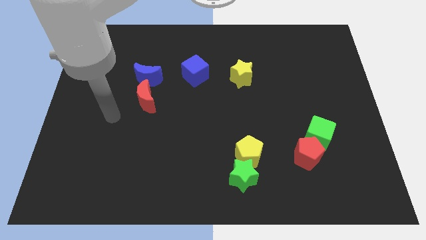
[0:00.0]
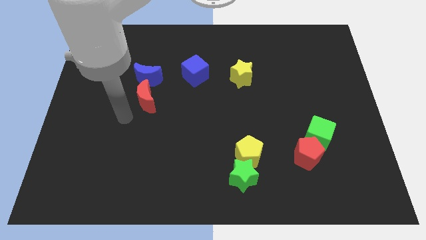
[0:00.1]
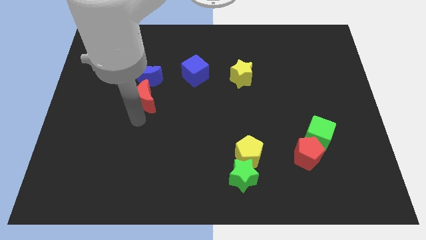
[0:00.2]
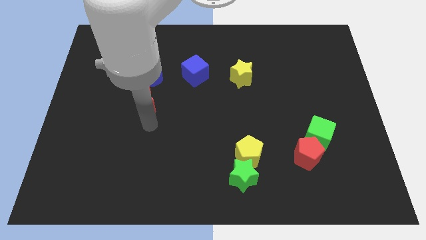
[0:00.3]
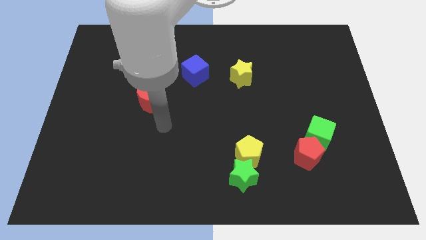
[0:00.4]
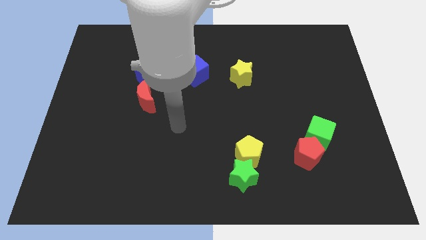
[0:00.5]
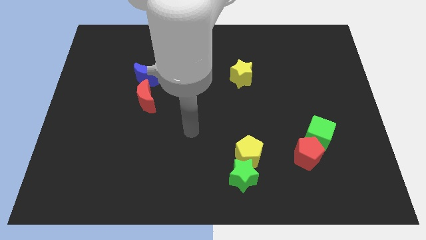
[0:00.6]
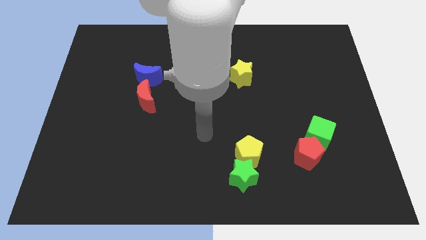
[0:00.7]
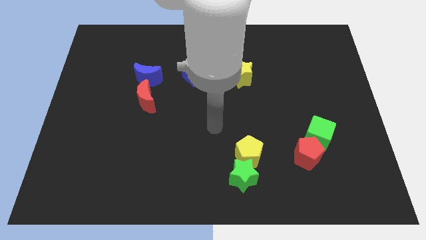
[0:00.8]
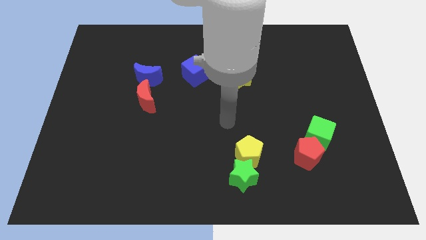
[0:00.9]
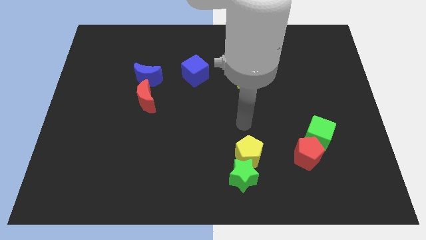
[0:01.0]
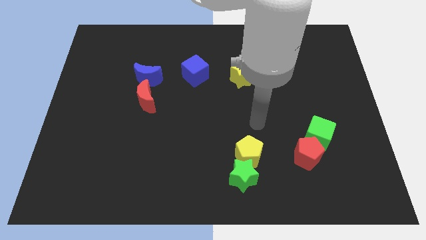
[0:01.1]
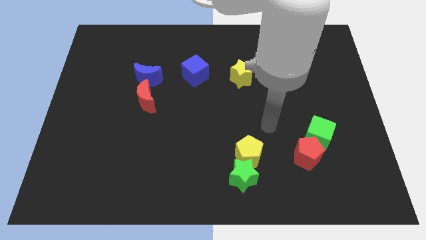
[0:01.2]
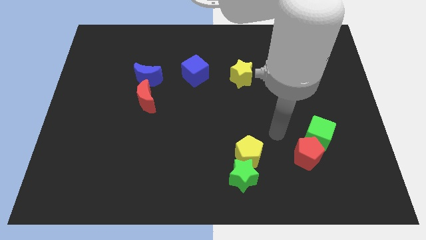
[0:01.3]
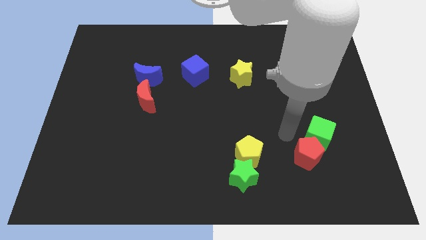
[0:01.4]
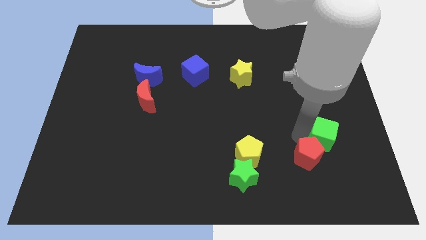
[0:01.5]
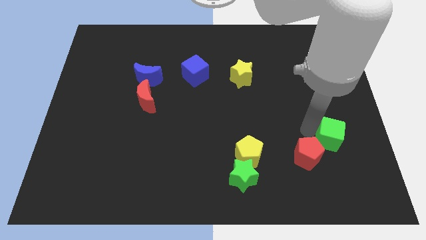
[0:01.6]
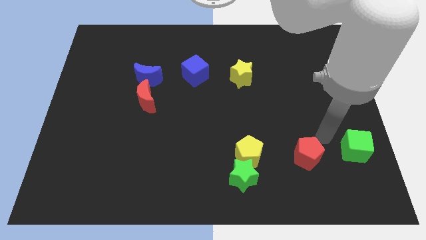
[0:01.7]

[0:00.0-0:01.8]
separate the red pentagon from the green cube

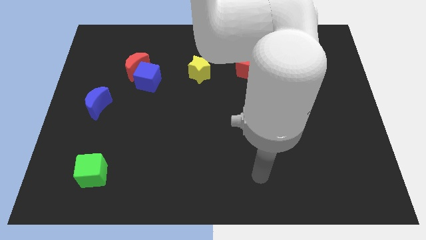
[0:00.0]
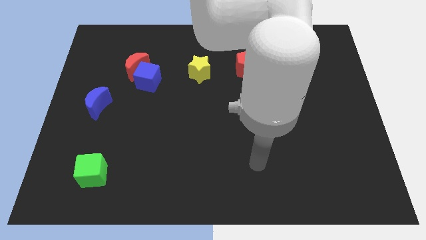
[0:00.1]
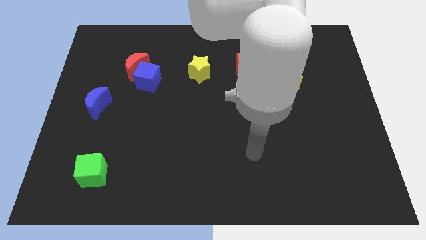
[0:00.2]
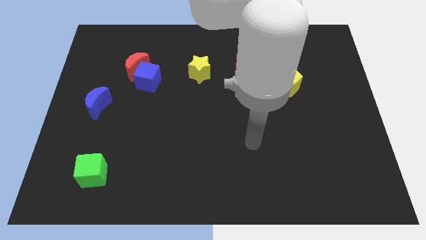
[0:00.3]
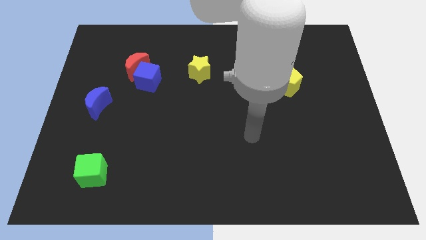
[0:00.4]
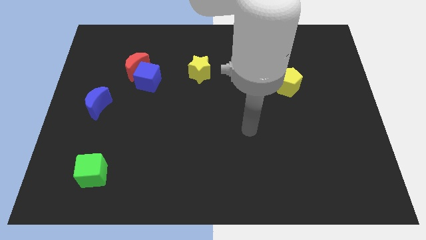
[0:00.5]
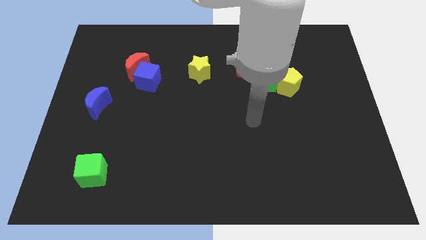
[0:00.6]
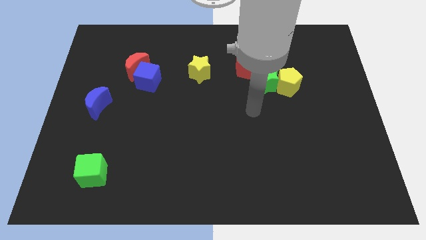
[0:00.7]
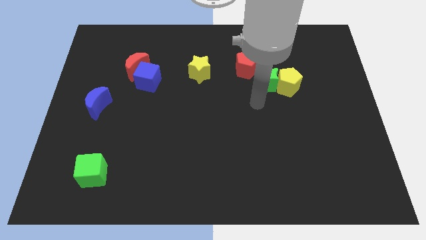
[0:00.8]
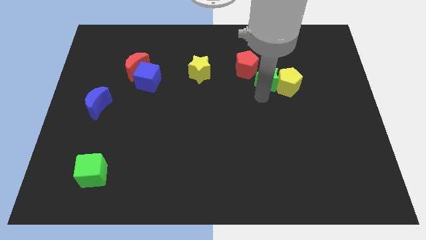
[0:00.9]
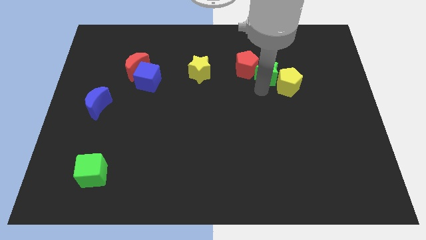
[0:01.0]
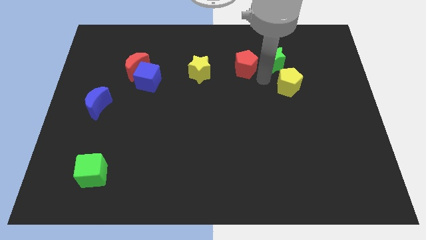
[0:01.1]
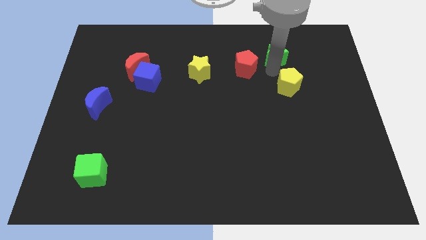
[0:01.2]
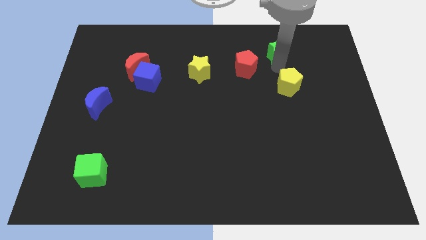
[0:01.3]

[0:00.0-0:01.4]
pull the yellow pentagon apart from the green star

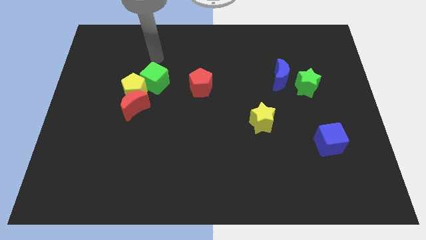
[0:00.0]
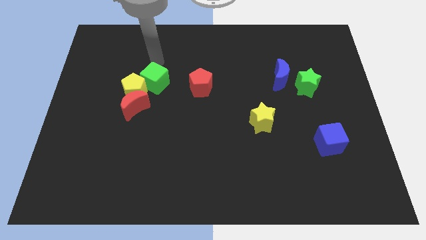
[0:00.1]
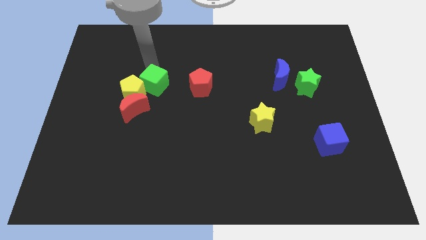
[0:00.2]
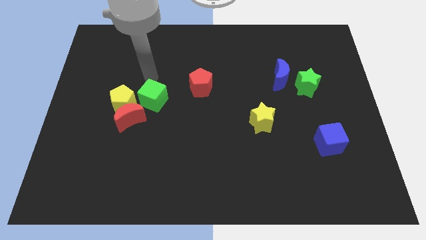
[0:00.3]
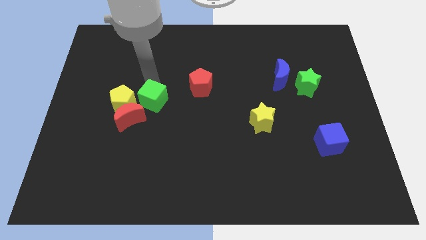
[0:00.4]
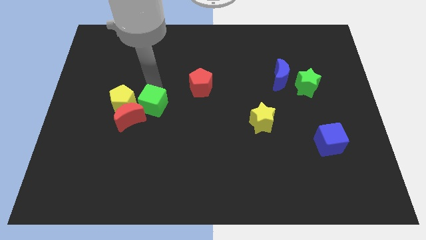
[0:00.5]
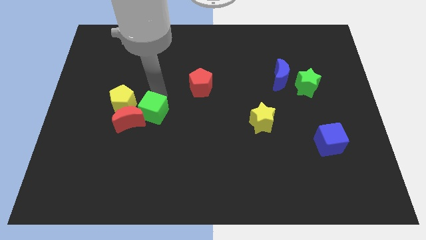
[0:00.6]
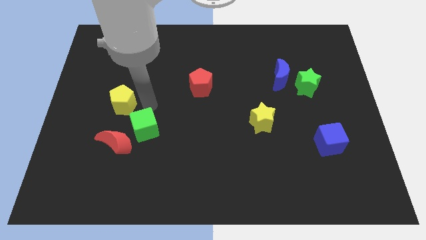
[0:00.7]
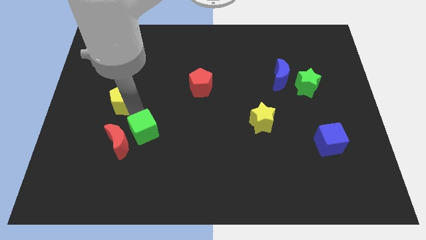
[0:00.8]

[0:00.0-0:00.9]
separate the yellow pentagon from the red moon and green cube

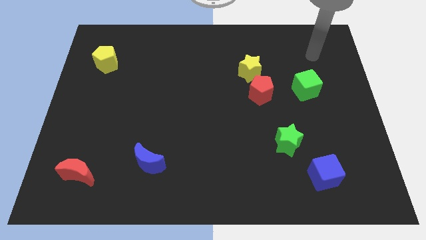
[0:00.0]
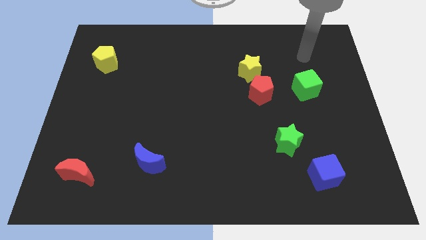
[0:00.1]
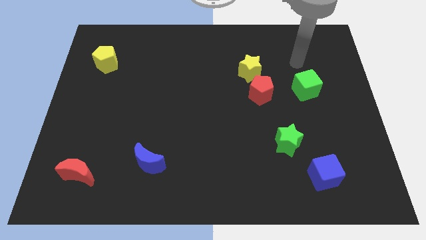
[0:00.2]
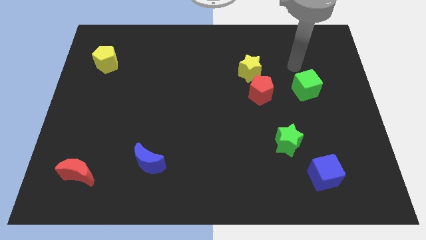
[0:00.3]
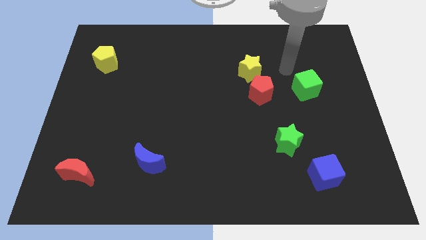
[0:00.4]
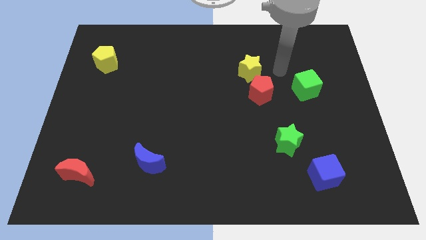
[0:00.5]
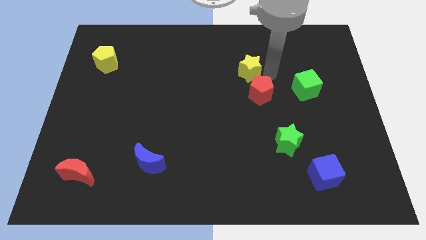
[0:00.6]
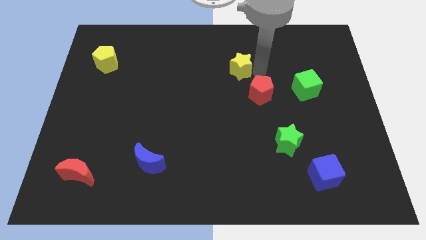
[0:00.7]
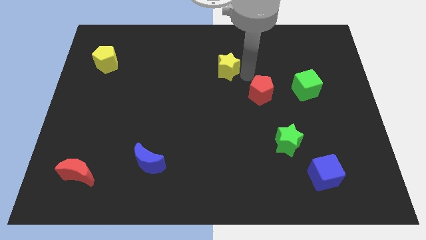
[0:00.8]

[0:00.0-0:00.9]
separate the red pentagon from the yellow star

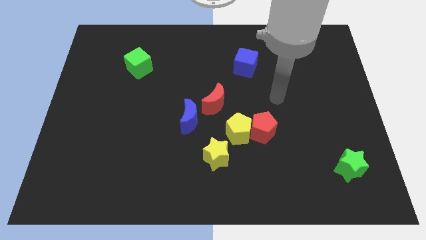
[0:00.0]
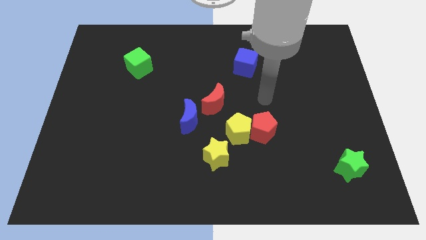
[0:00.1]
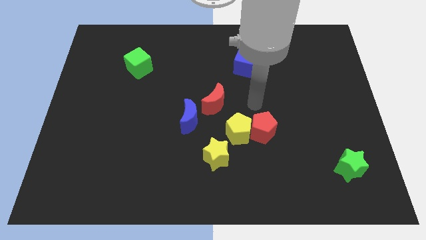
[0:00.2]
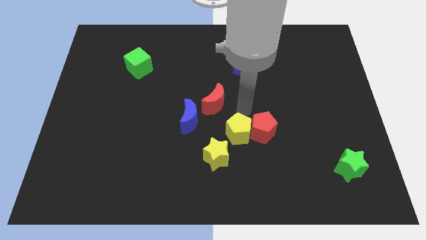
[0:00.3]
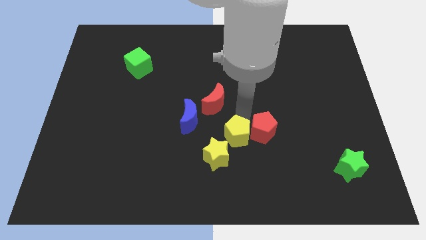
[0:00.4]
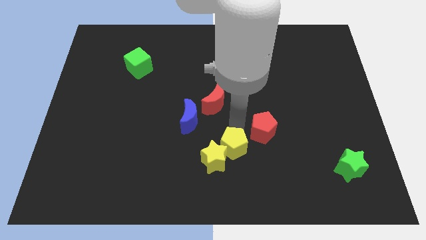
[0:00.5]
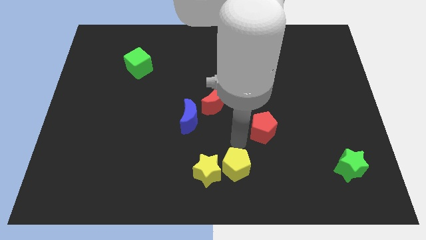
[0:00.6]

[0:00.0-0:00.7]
move the red pentagon away from the yellow pentagon

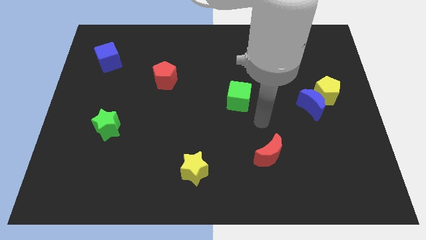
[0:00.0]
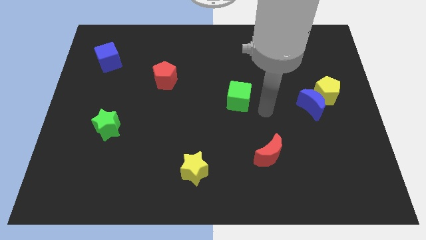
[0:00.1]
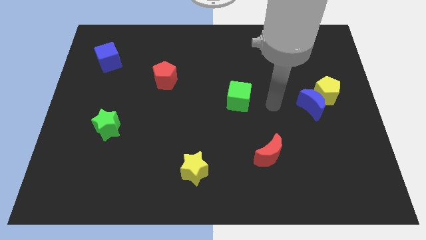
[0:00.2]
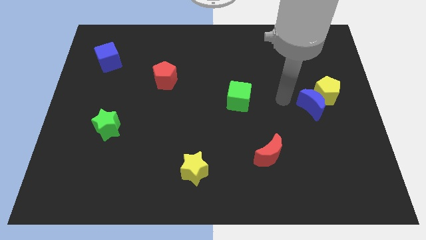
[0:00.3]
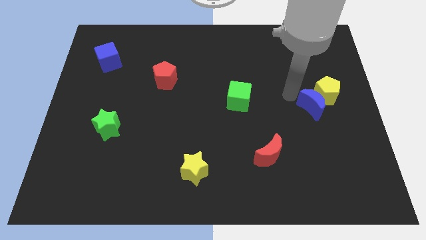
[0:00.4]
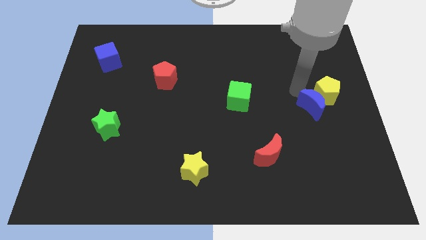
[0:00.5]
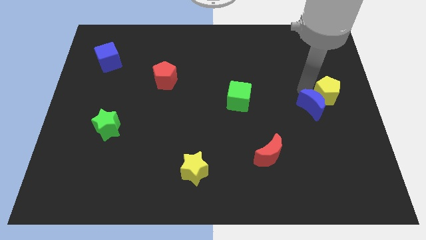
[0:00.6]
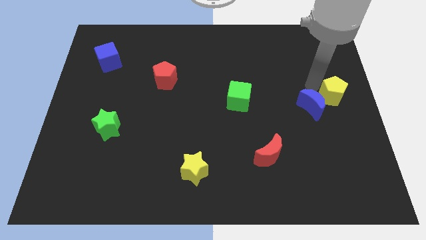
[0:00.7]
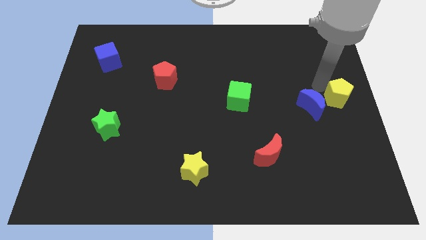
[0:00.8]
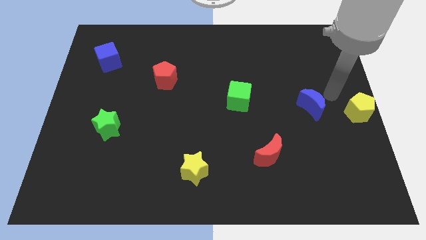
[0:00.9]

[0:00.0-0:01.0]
move the blue moon away from the yellow pentagon

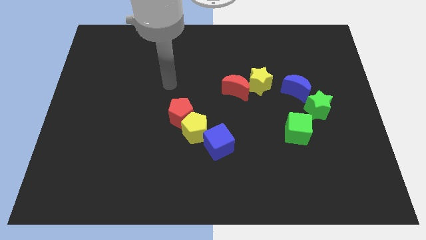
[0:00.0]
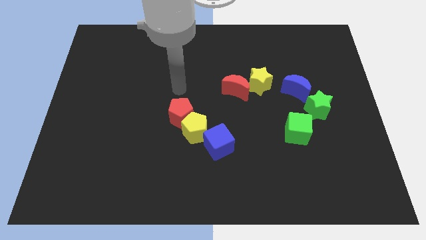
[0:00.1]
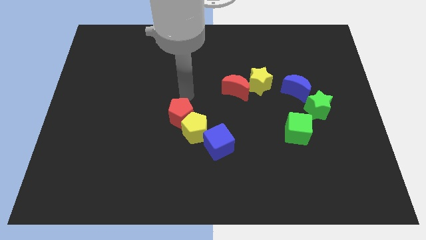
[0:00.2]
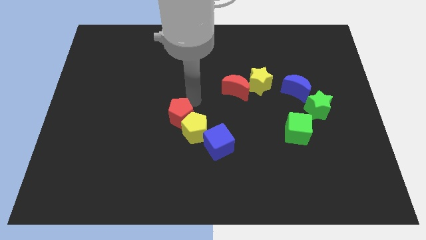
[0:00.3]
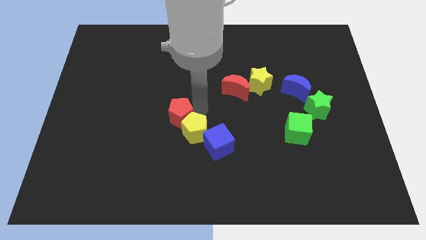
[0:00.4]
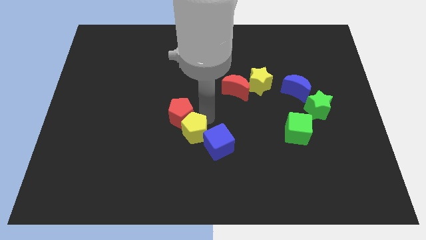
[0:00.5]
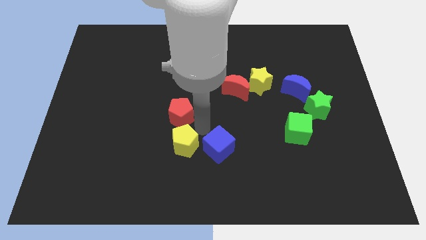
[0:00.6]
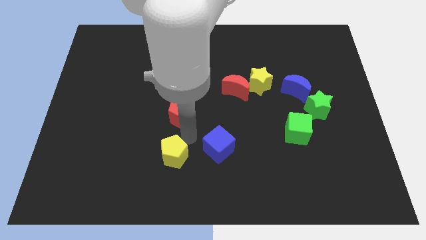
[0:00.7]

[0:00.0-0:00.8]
separate the red pentagon from the yellow pentagon

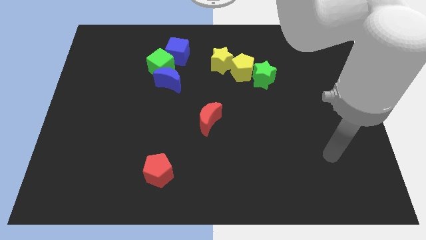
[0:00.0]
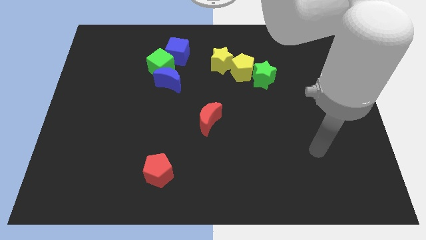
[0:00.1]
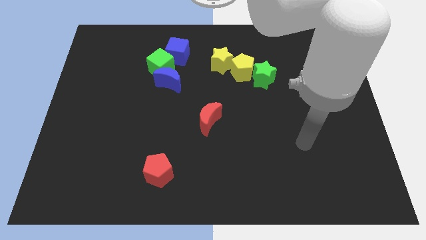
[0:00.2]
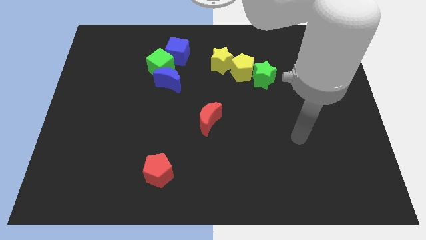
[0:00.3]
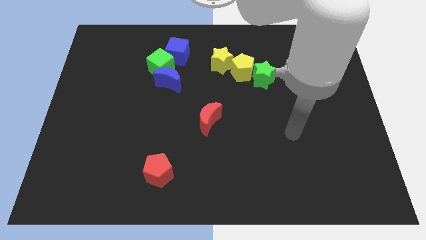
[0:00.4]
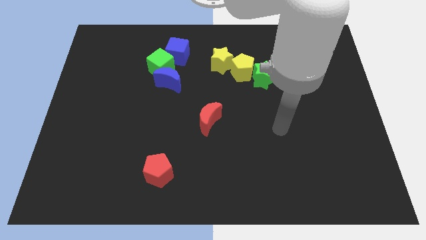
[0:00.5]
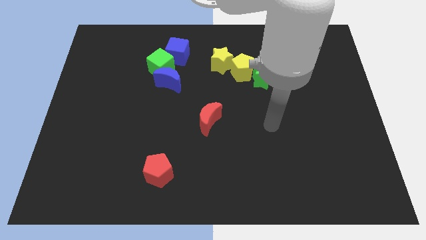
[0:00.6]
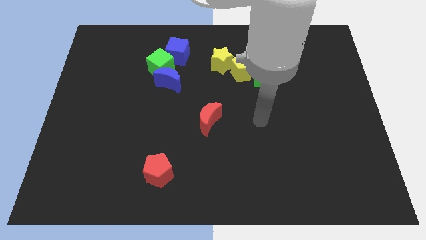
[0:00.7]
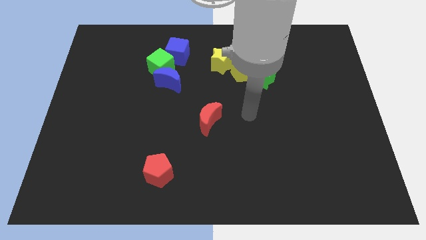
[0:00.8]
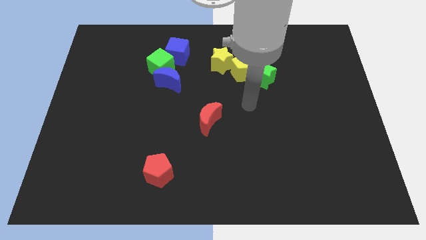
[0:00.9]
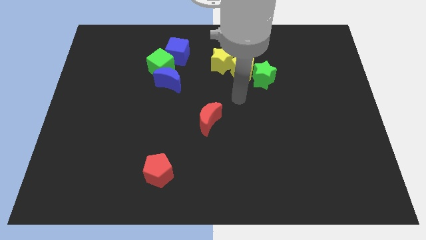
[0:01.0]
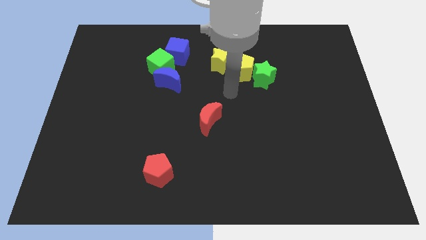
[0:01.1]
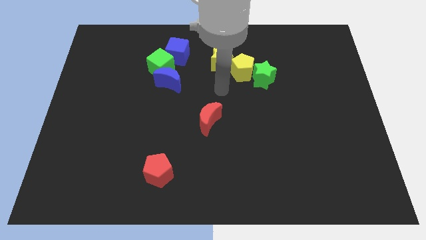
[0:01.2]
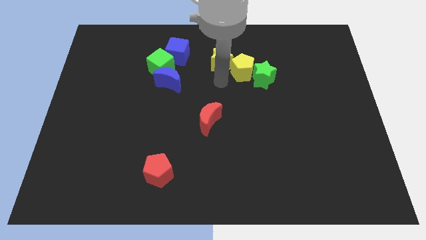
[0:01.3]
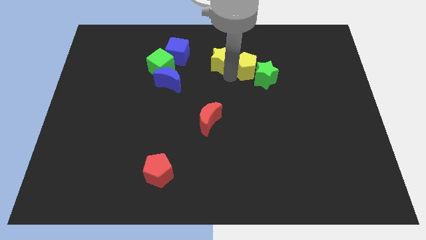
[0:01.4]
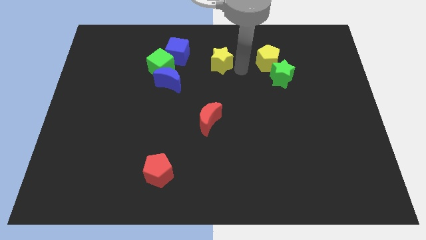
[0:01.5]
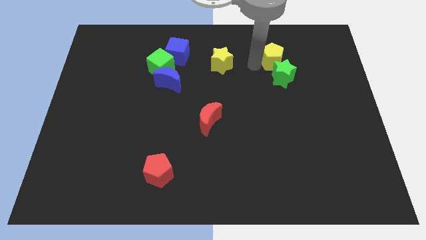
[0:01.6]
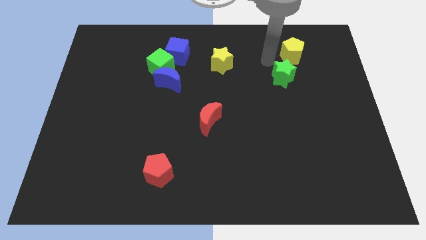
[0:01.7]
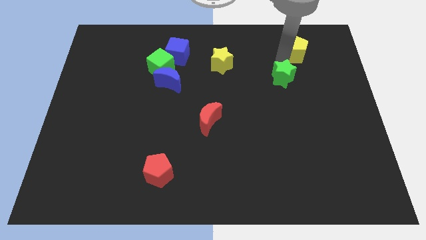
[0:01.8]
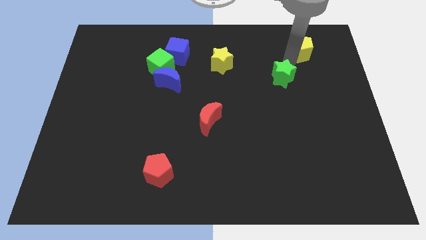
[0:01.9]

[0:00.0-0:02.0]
separate the green star from the yellow pentagon
